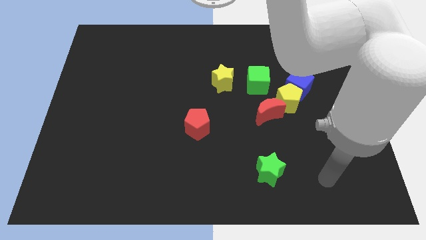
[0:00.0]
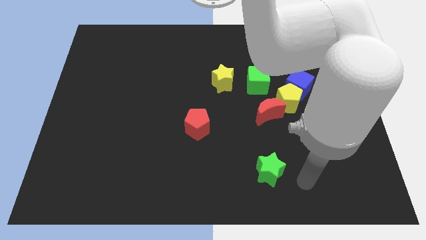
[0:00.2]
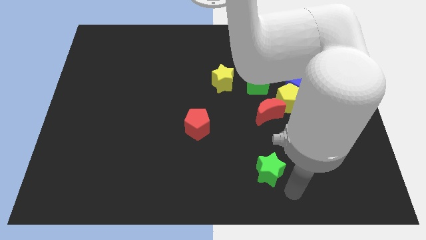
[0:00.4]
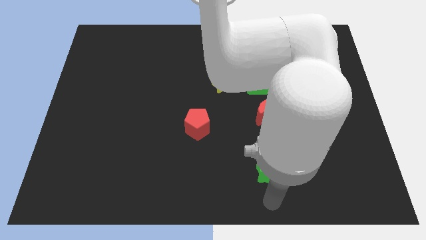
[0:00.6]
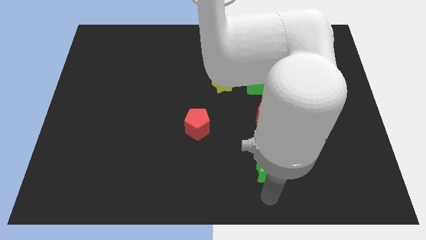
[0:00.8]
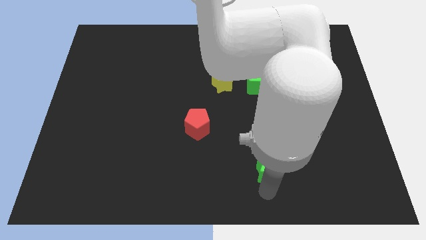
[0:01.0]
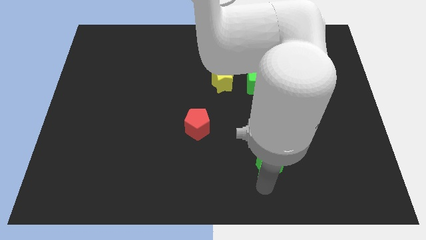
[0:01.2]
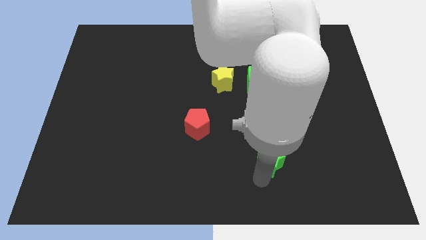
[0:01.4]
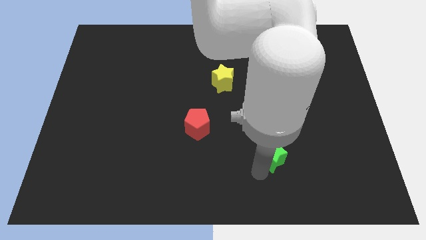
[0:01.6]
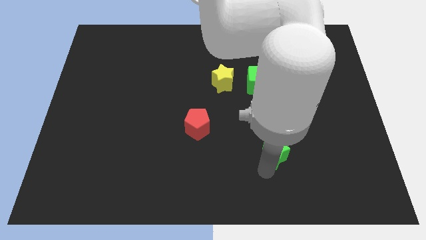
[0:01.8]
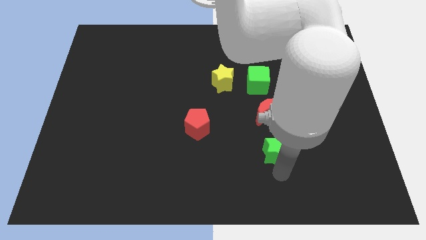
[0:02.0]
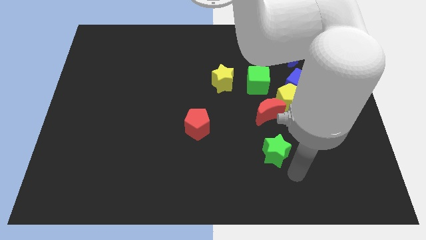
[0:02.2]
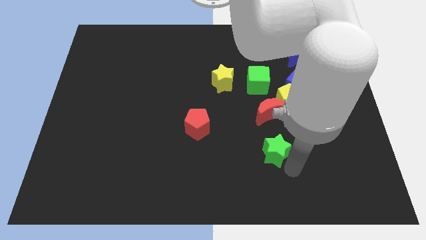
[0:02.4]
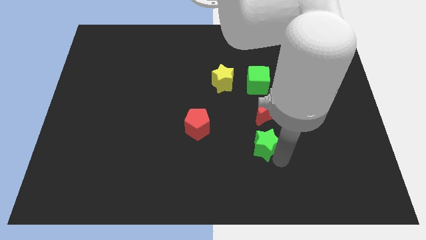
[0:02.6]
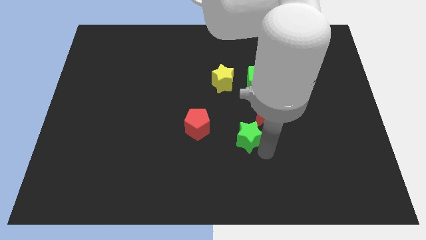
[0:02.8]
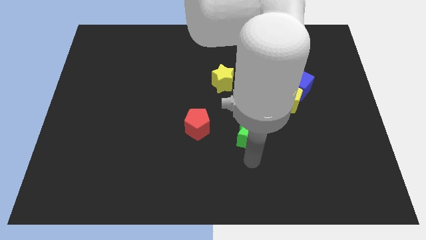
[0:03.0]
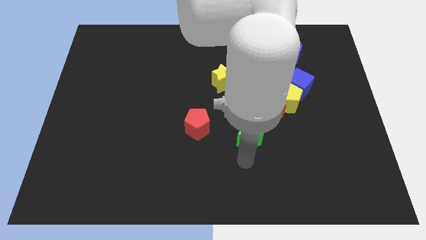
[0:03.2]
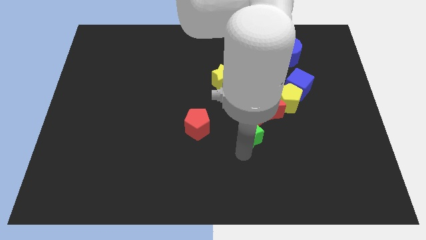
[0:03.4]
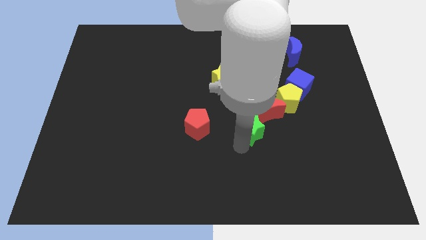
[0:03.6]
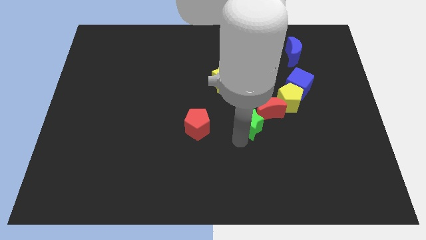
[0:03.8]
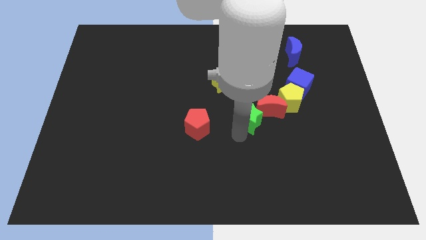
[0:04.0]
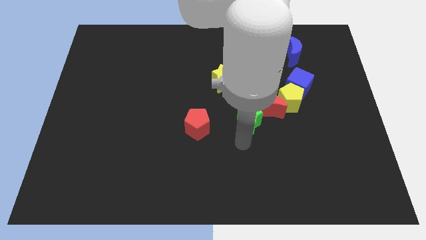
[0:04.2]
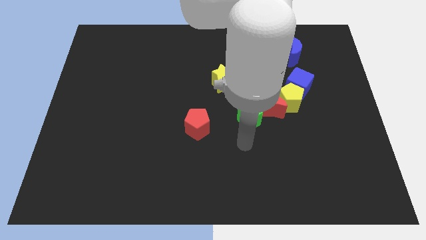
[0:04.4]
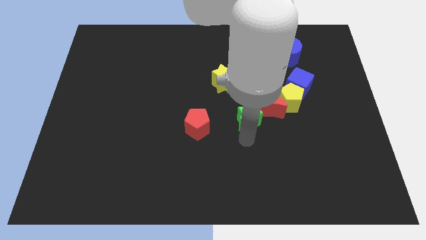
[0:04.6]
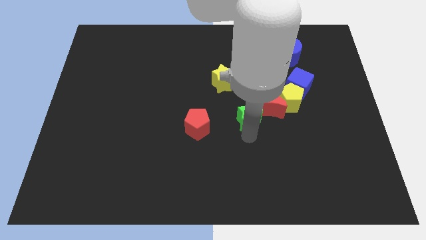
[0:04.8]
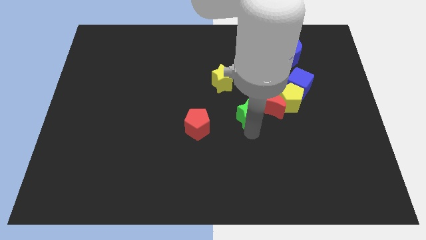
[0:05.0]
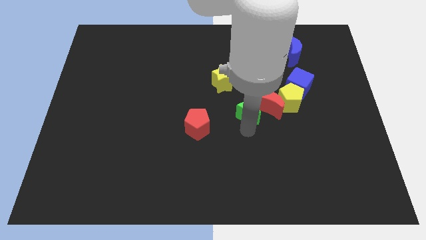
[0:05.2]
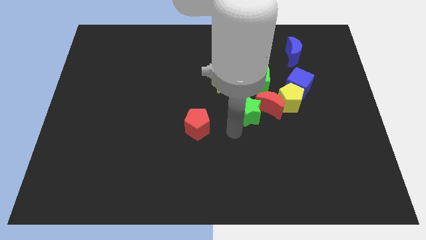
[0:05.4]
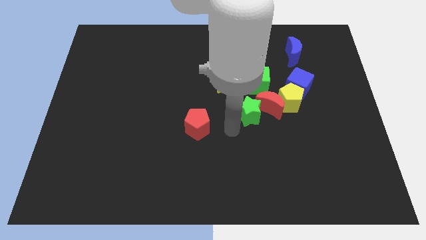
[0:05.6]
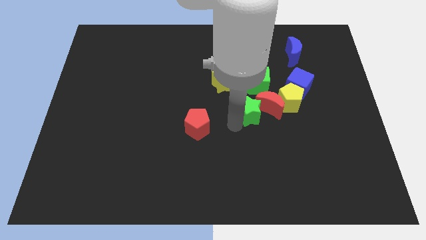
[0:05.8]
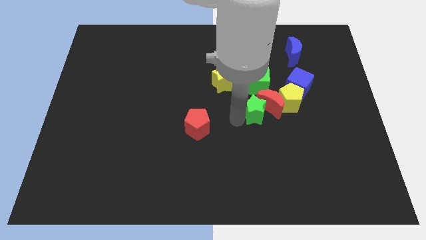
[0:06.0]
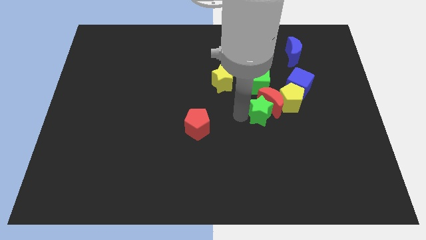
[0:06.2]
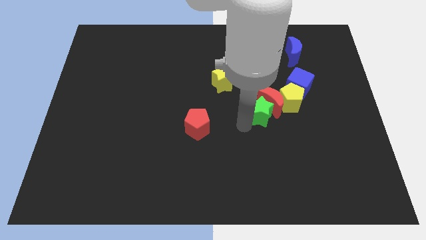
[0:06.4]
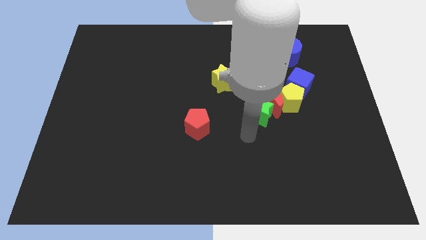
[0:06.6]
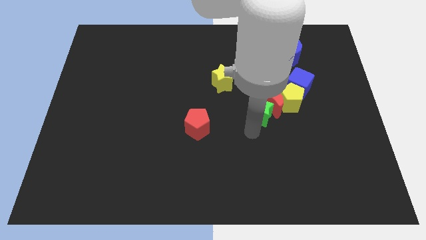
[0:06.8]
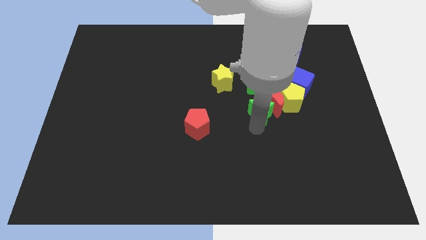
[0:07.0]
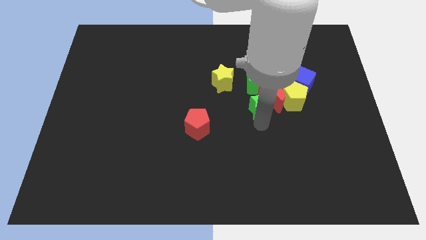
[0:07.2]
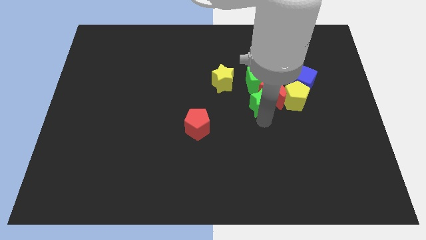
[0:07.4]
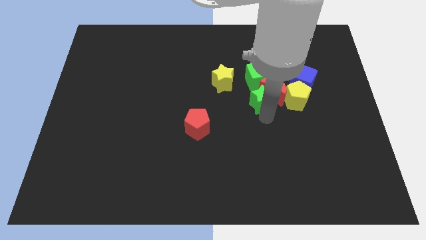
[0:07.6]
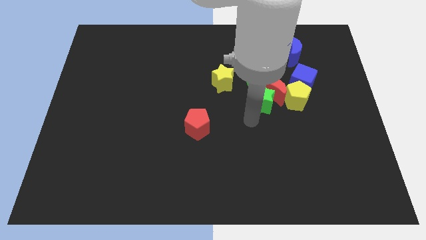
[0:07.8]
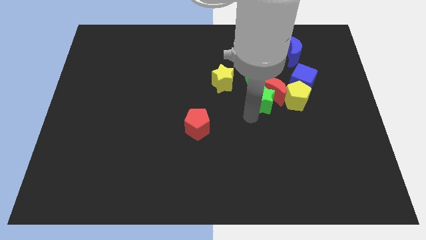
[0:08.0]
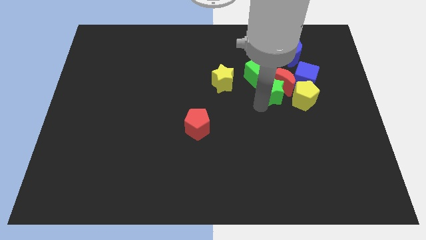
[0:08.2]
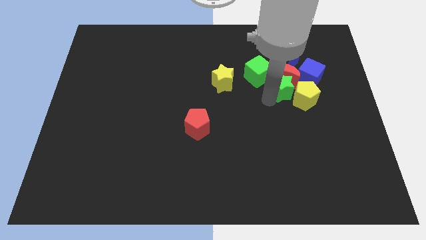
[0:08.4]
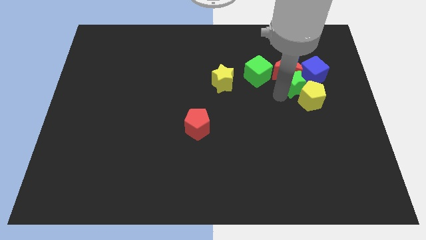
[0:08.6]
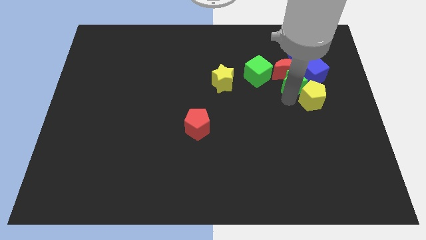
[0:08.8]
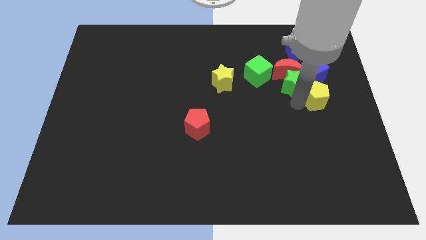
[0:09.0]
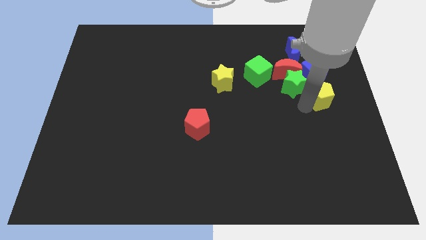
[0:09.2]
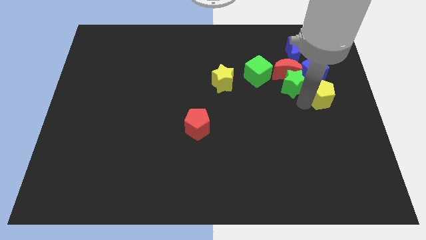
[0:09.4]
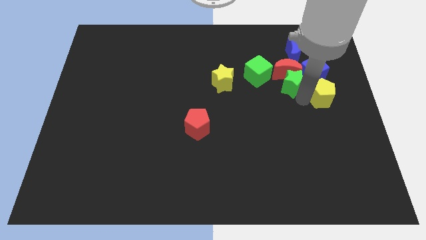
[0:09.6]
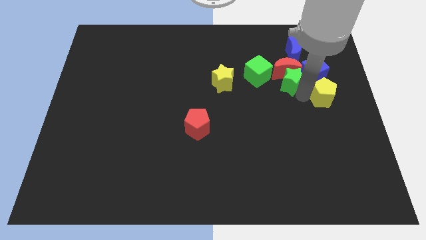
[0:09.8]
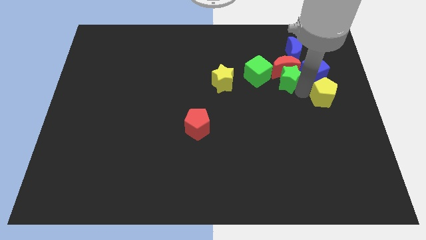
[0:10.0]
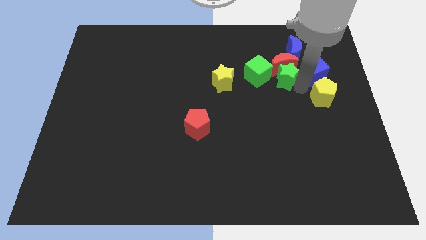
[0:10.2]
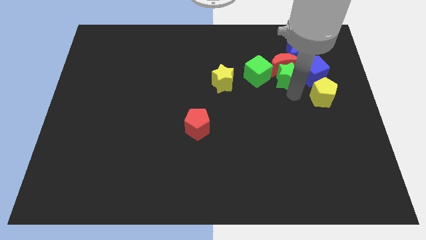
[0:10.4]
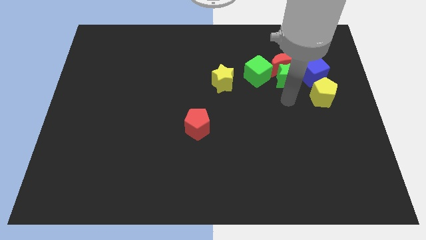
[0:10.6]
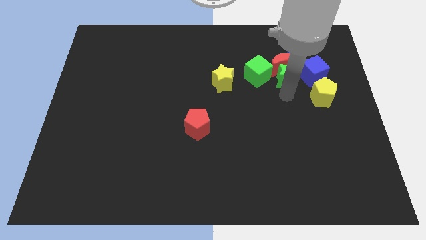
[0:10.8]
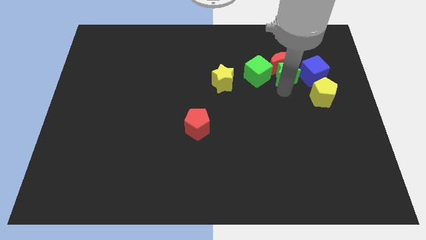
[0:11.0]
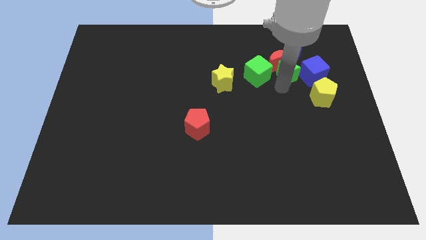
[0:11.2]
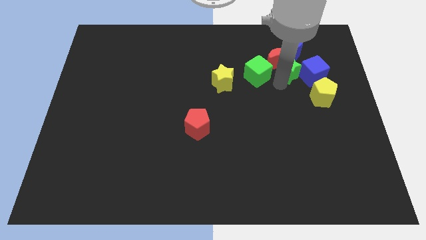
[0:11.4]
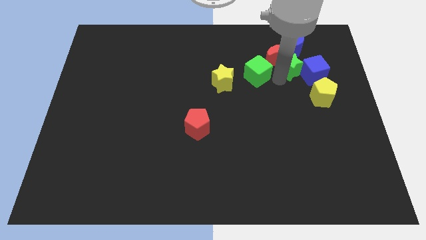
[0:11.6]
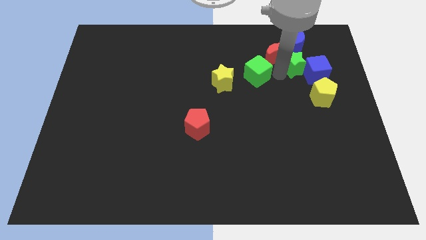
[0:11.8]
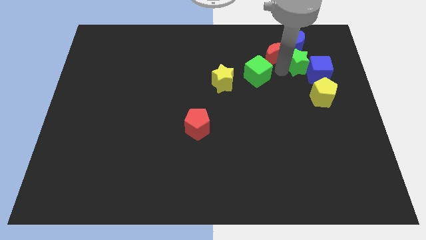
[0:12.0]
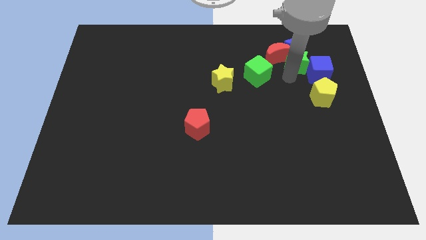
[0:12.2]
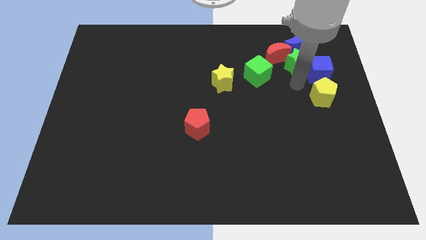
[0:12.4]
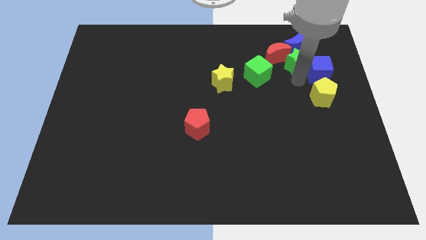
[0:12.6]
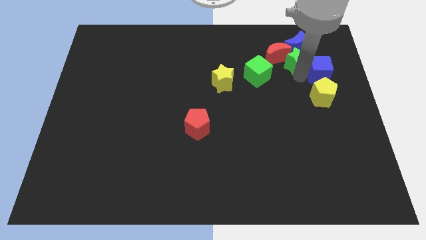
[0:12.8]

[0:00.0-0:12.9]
slide the green star next to the blue moon

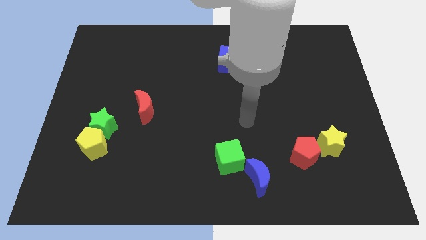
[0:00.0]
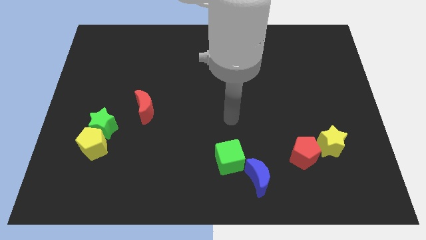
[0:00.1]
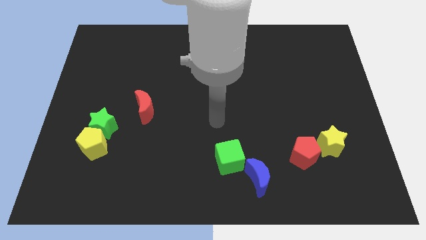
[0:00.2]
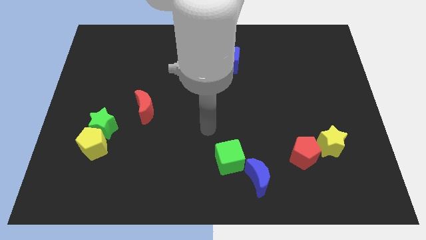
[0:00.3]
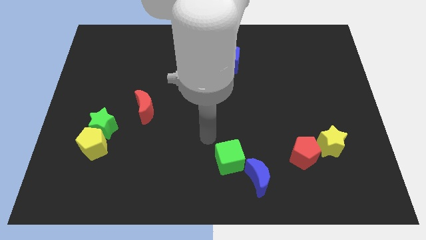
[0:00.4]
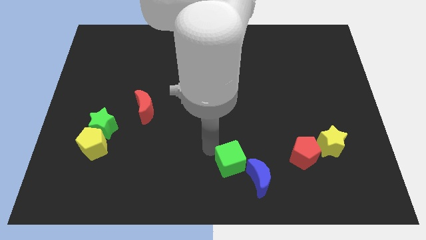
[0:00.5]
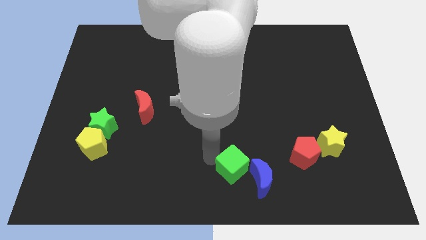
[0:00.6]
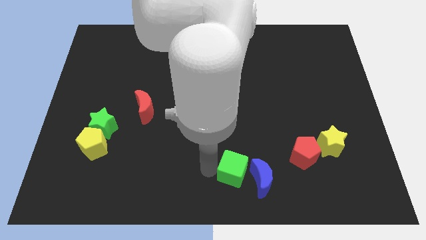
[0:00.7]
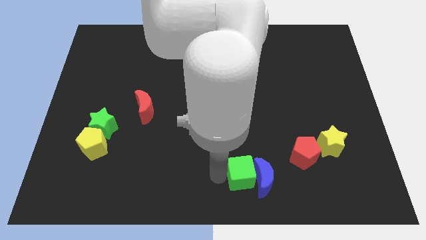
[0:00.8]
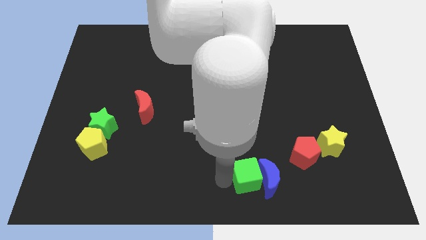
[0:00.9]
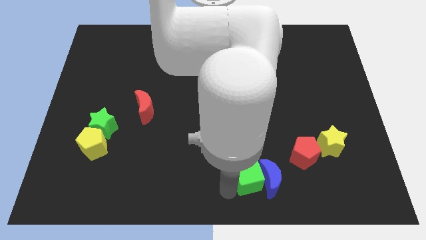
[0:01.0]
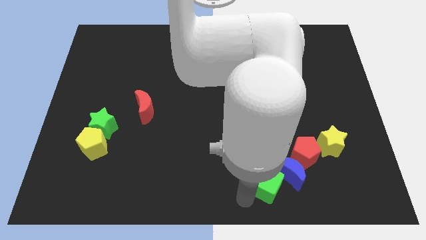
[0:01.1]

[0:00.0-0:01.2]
move the blue moon towards the red pentagon

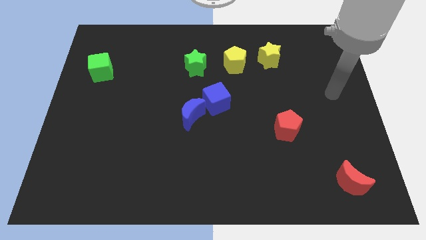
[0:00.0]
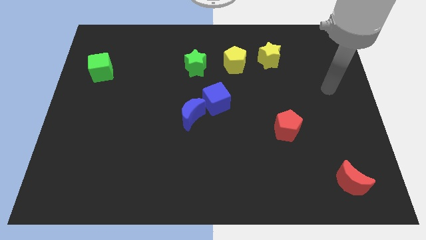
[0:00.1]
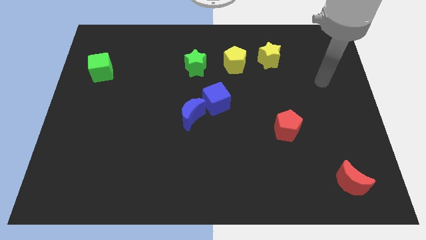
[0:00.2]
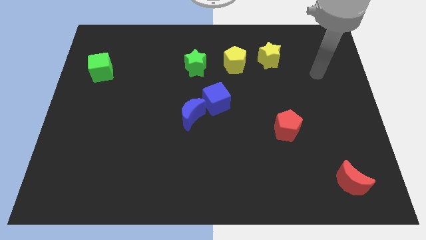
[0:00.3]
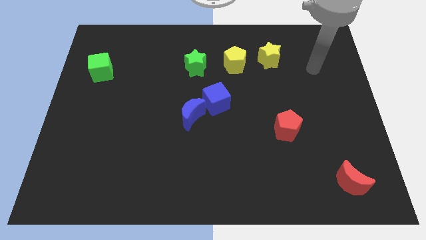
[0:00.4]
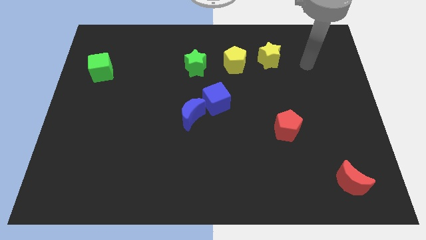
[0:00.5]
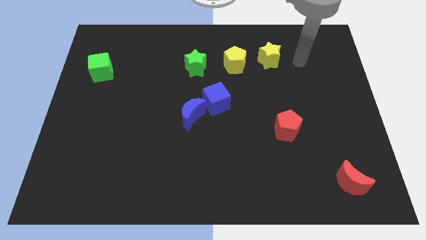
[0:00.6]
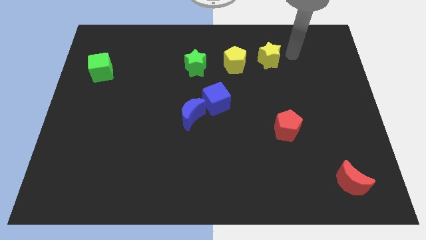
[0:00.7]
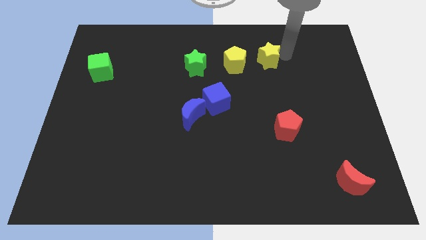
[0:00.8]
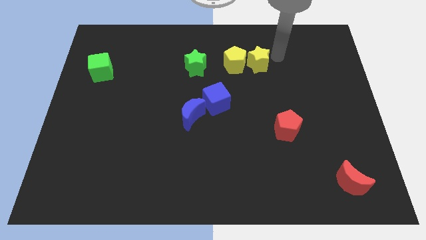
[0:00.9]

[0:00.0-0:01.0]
put the yellow star close to the yellow pentagon
